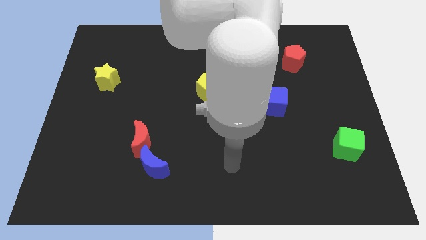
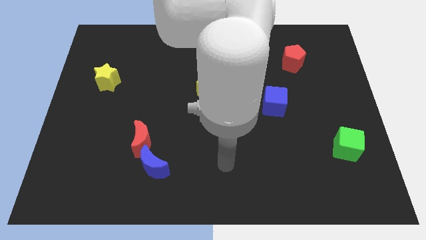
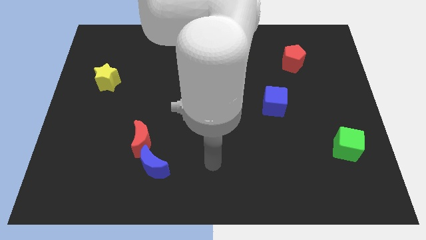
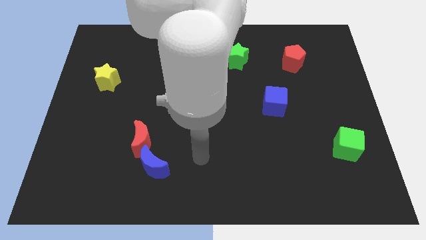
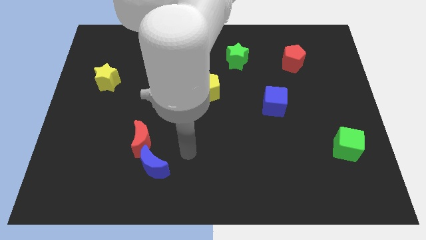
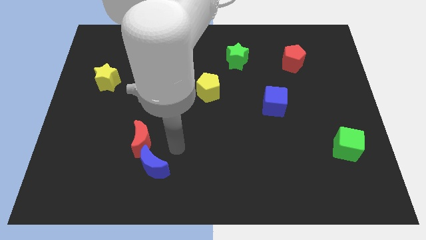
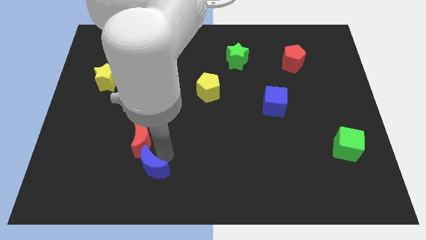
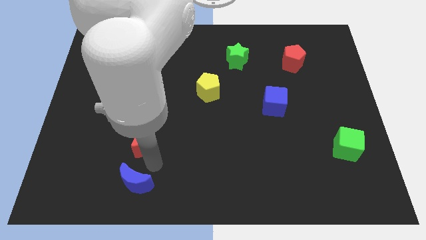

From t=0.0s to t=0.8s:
separate the red moon from the blue moon

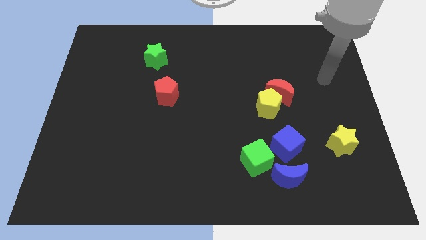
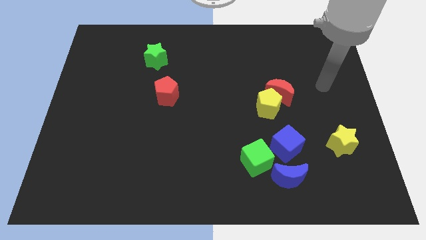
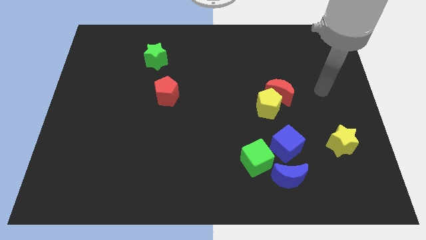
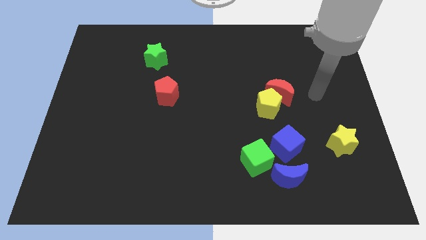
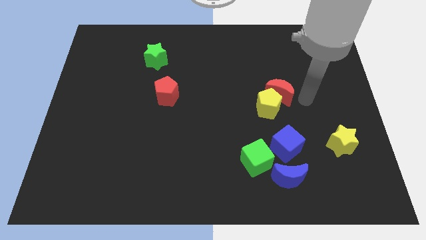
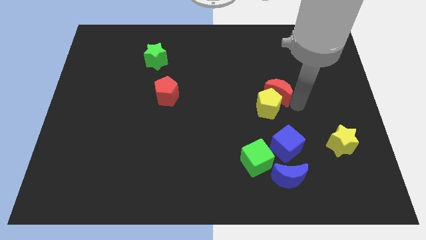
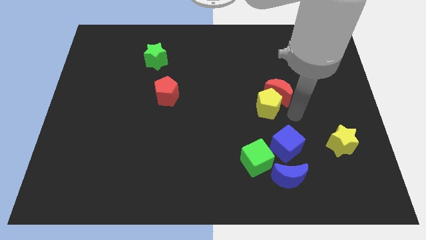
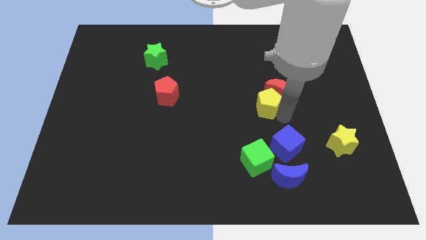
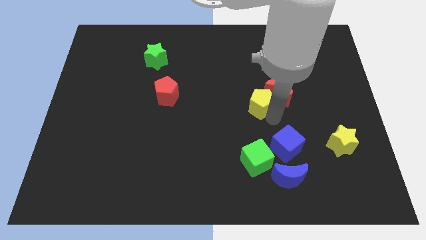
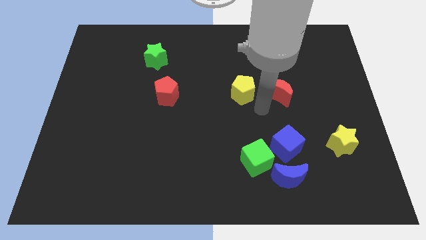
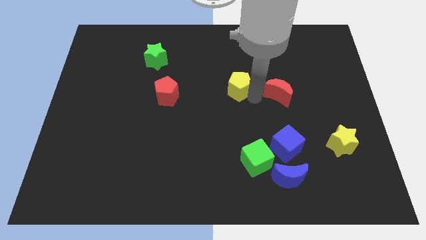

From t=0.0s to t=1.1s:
separate the red moon from the yellow pentagon

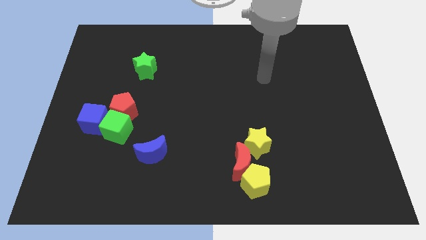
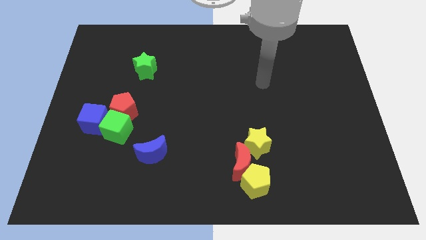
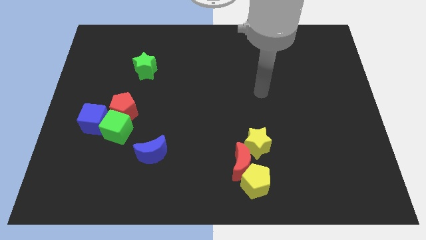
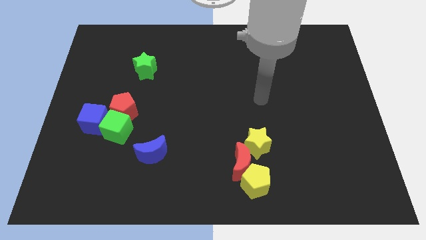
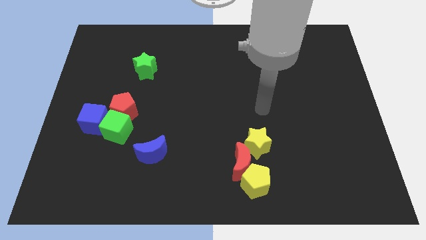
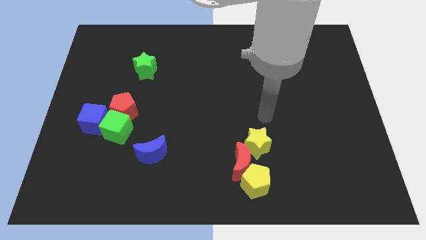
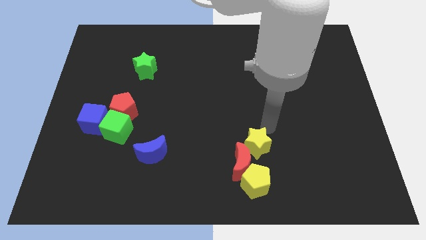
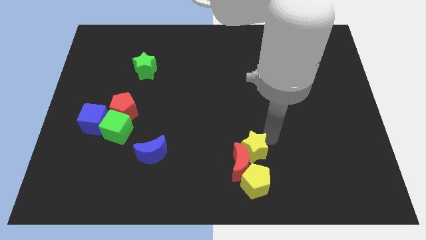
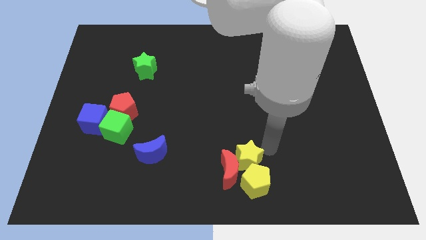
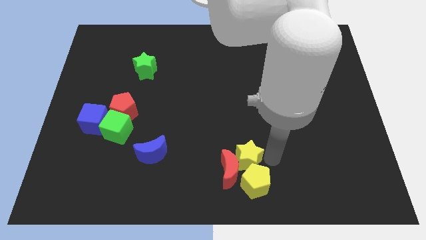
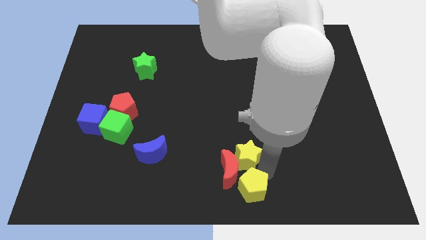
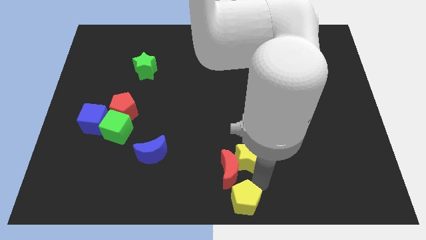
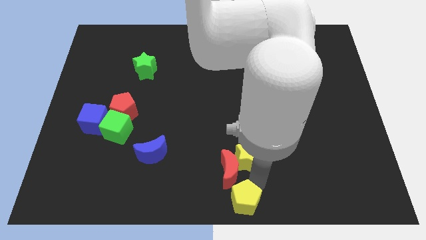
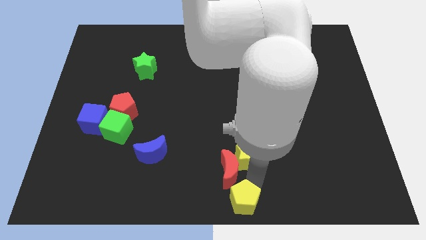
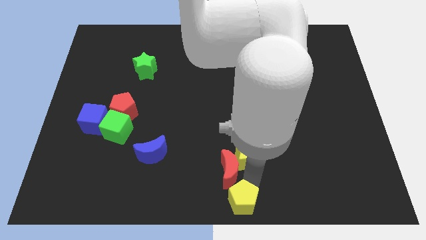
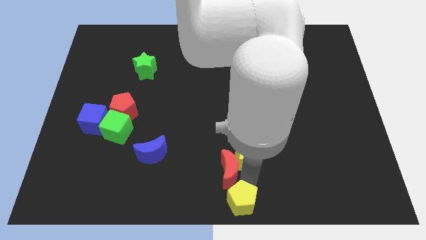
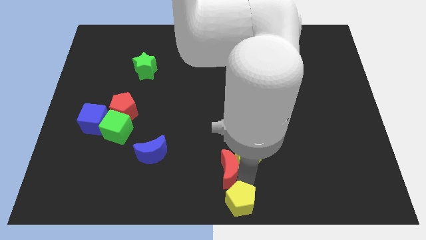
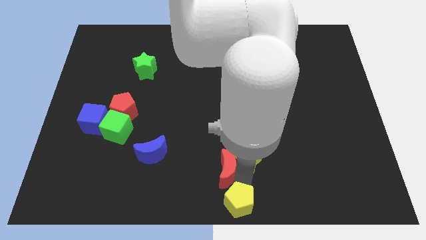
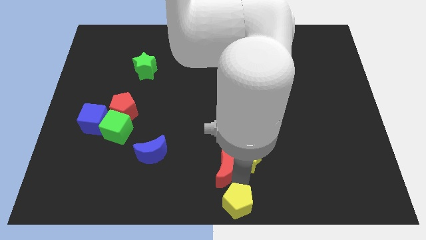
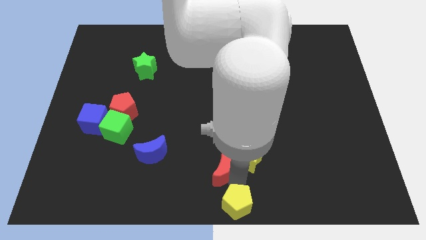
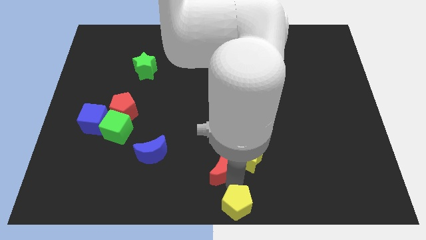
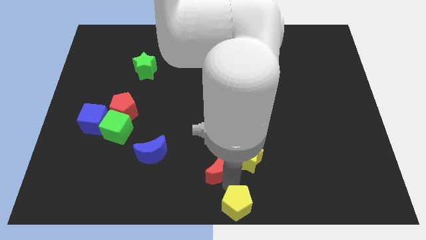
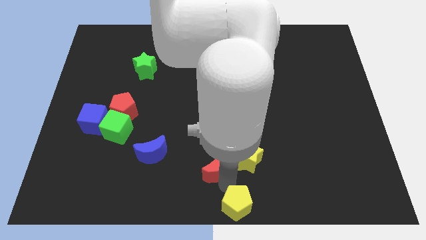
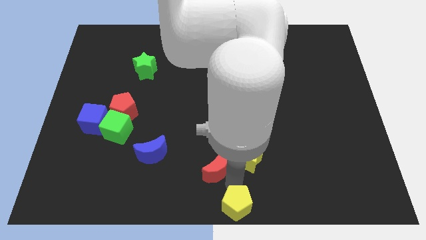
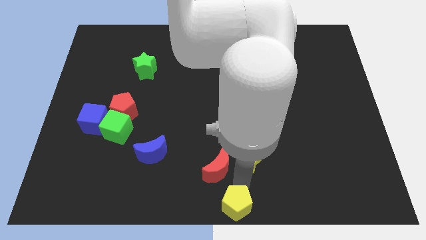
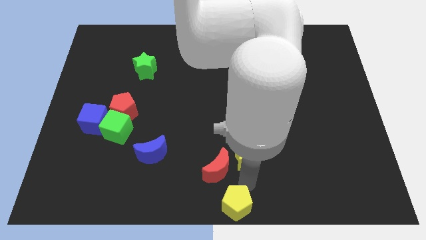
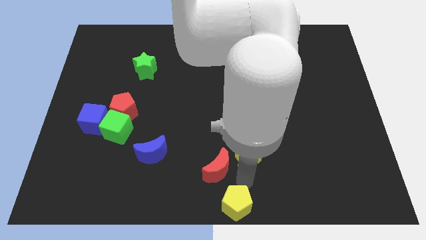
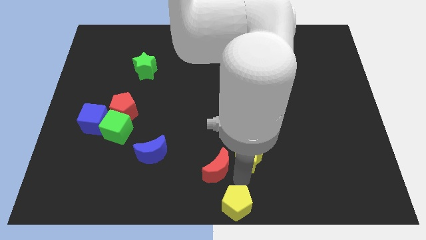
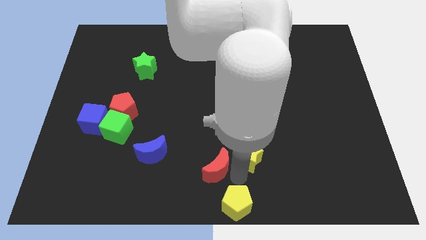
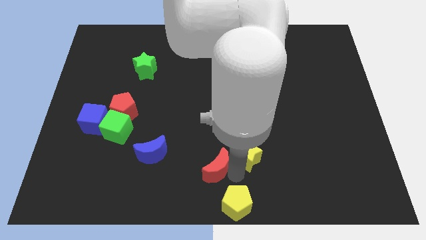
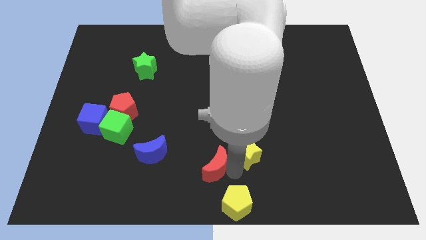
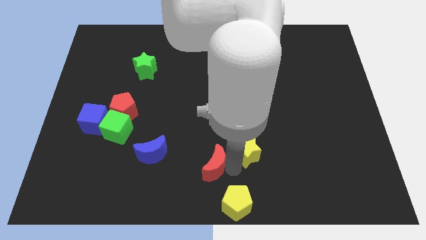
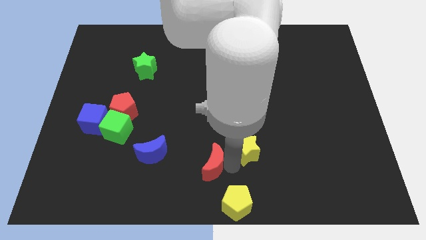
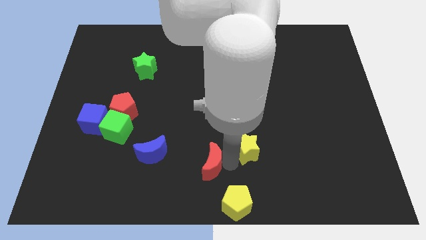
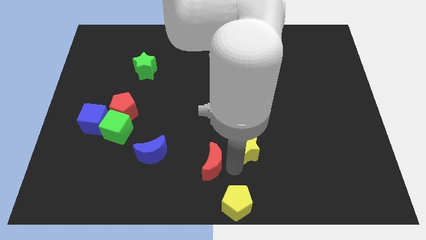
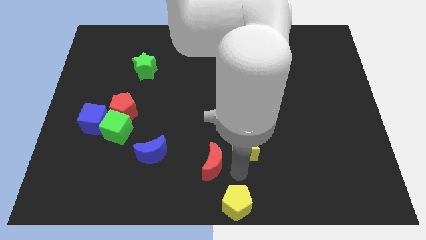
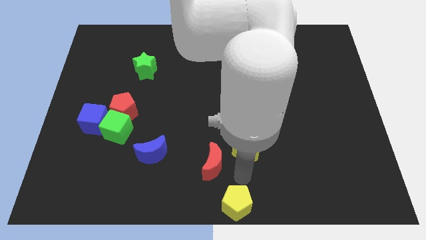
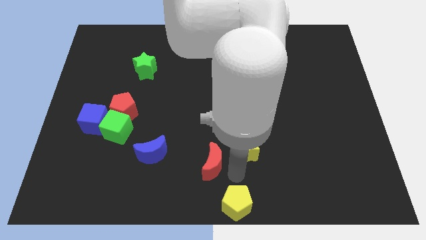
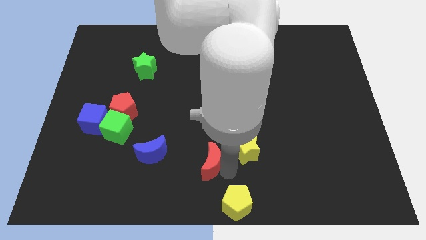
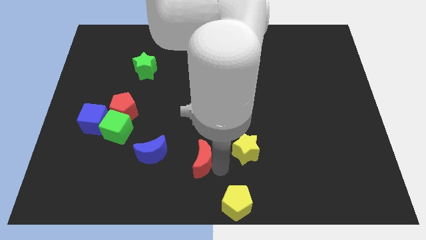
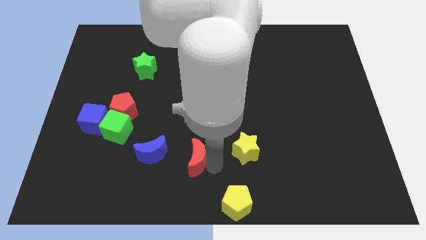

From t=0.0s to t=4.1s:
separate the red moon from the yellow pentagon and yellow star

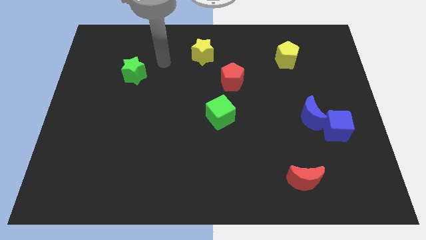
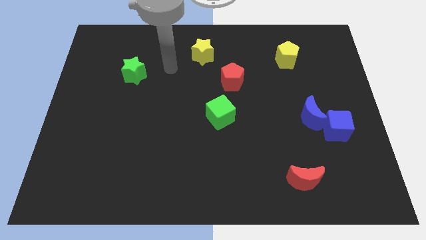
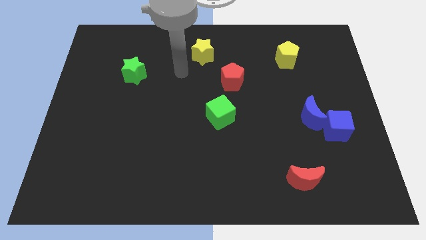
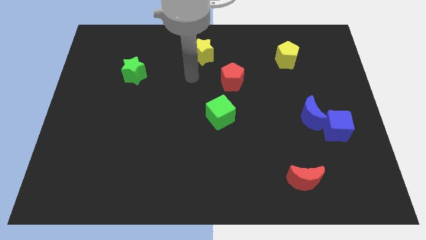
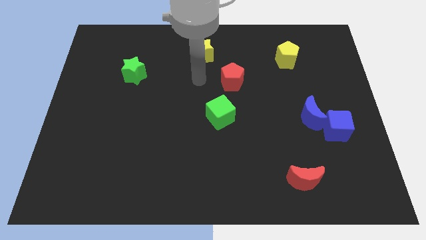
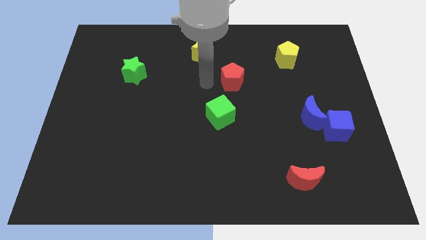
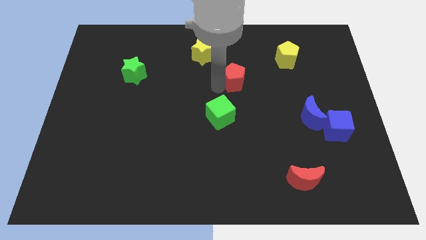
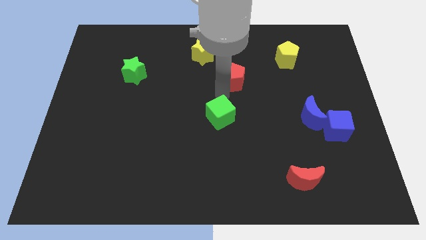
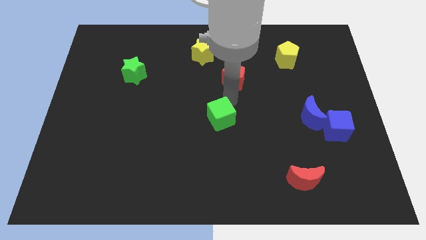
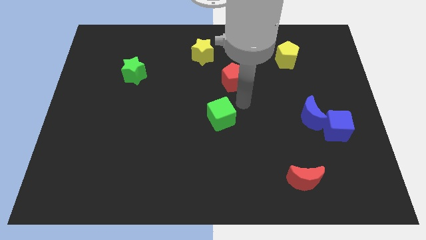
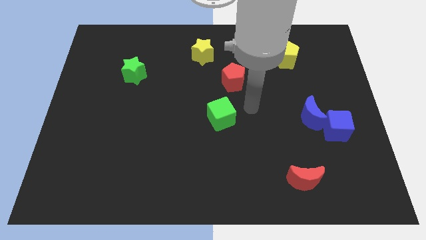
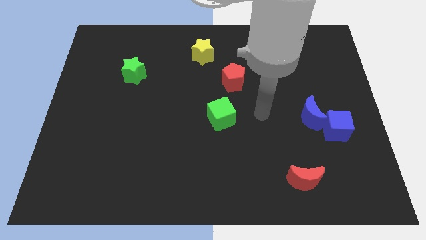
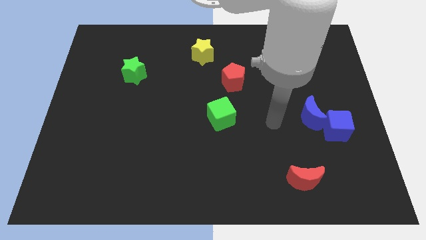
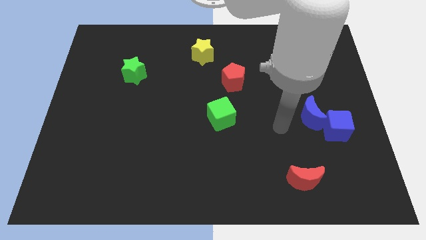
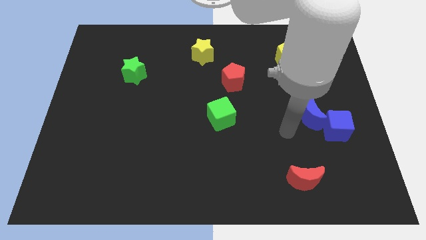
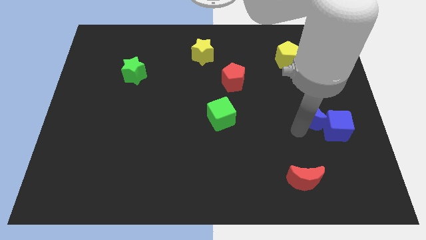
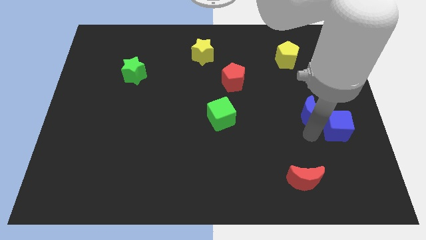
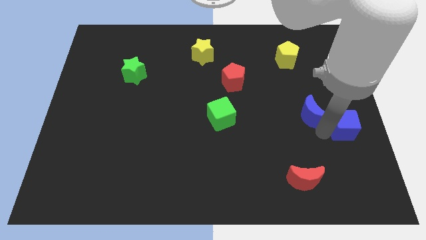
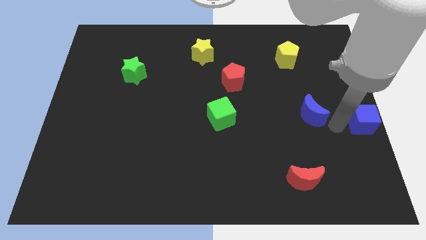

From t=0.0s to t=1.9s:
pull the blue moon apart from the blue cube

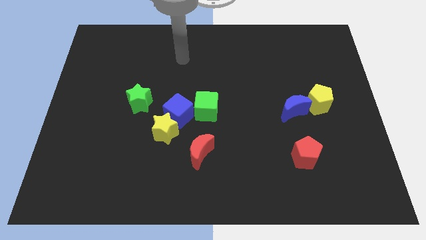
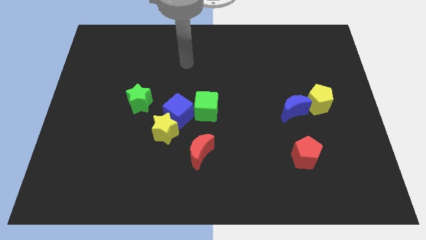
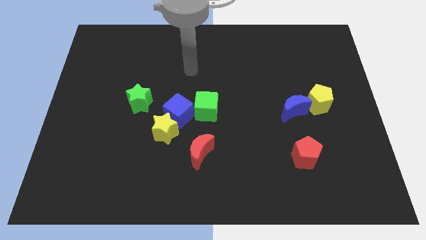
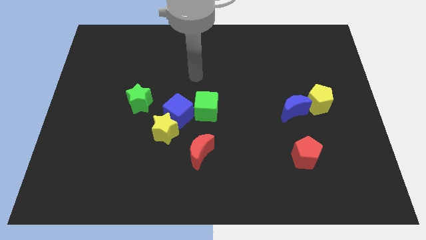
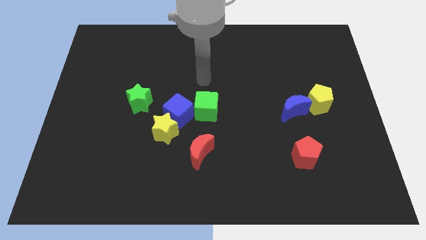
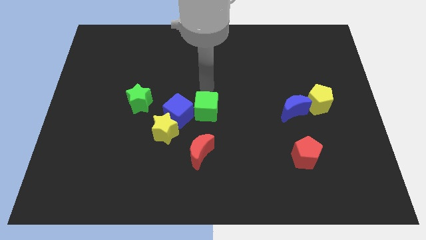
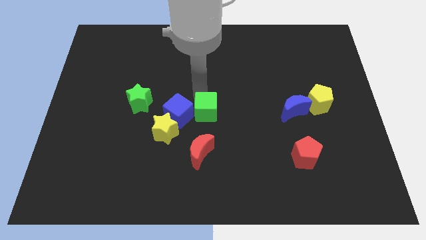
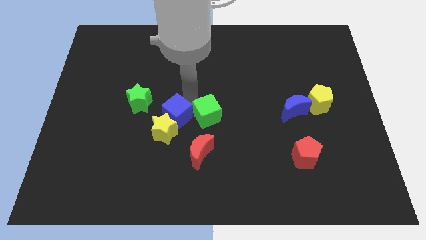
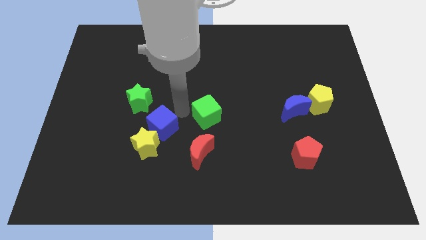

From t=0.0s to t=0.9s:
move the green cube away from the blue cube

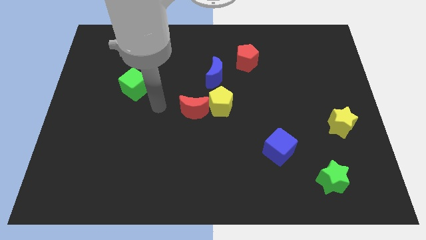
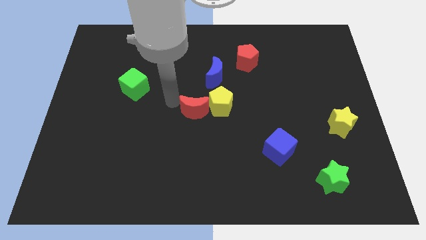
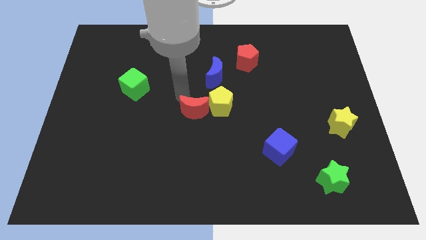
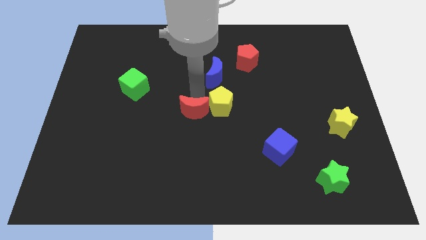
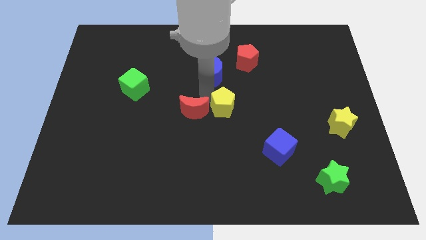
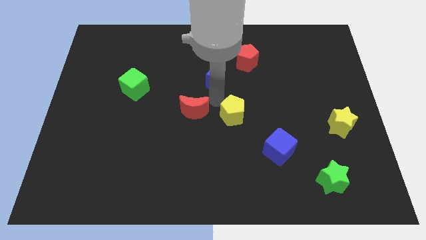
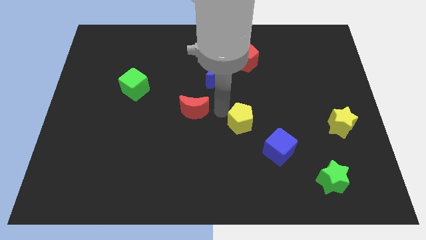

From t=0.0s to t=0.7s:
move the red moon away from the yellow pentagon
